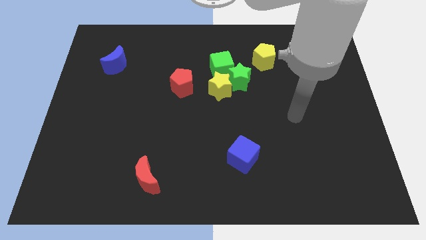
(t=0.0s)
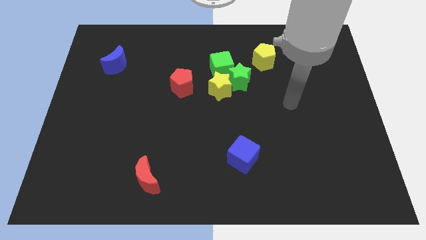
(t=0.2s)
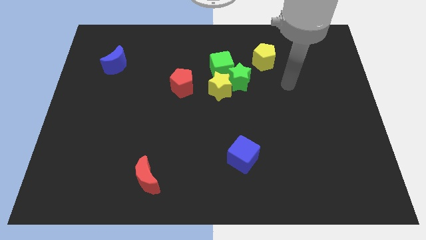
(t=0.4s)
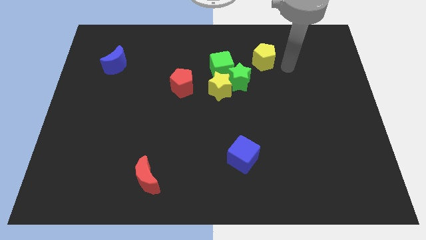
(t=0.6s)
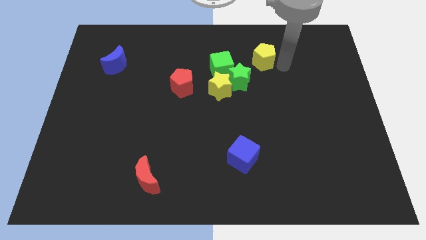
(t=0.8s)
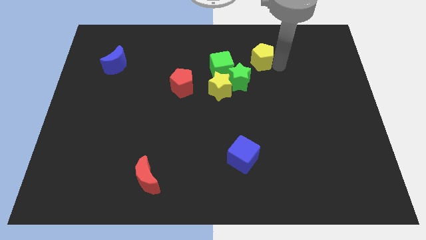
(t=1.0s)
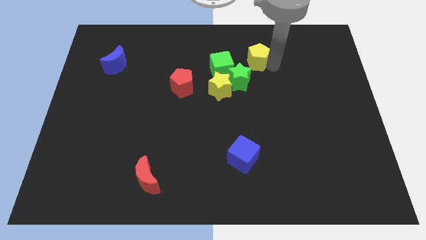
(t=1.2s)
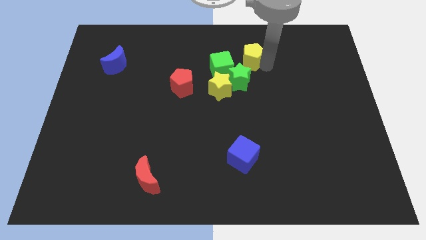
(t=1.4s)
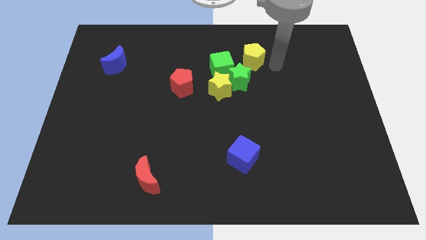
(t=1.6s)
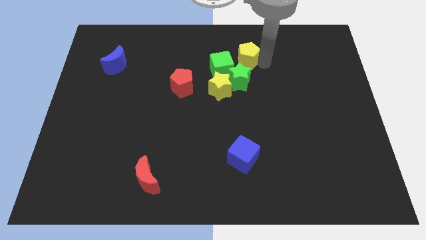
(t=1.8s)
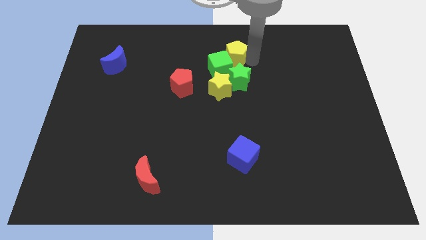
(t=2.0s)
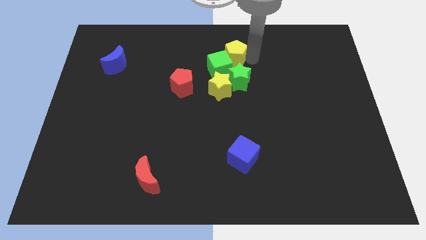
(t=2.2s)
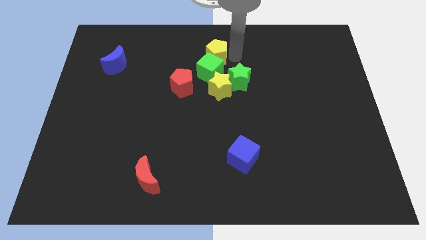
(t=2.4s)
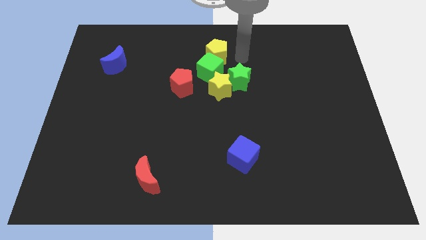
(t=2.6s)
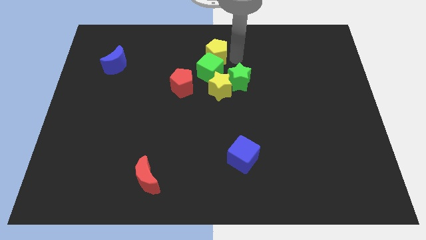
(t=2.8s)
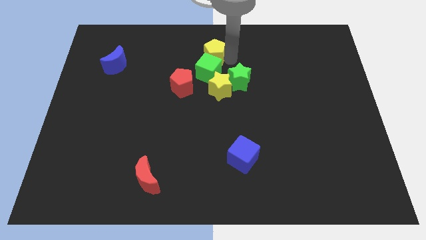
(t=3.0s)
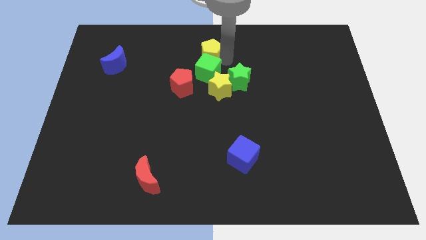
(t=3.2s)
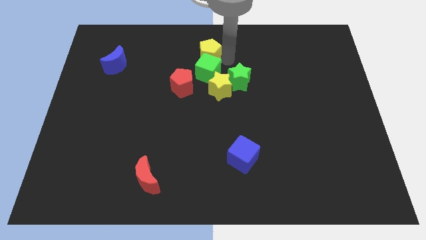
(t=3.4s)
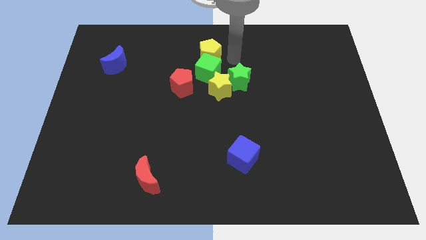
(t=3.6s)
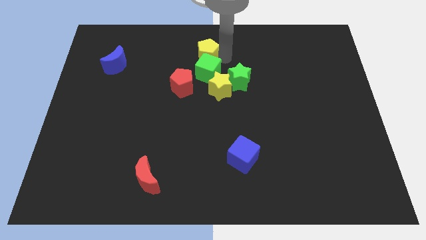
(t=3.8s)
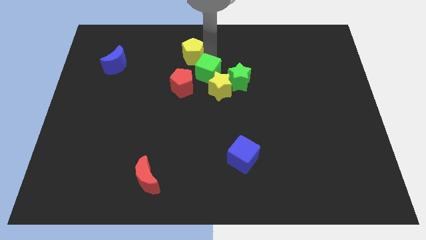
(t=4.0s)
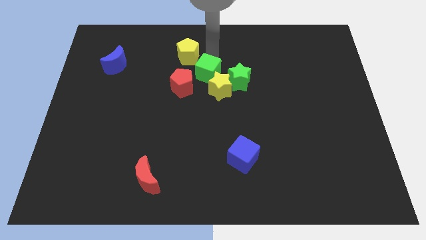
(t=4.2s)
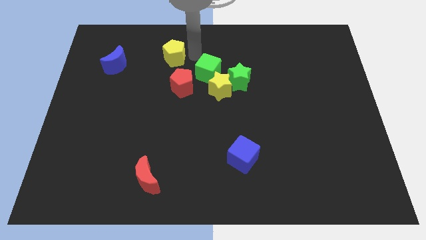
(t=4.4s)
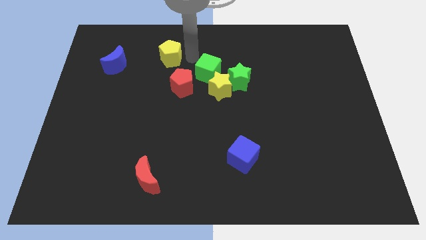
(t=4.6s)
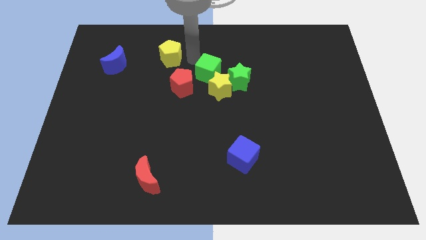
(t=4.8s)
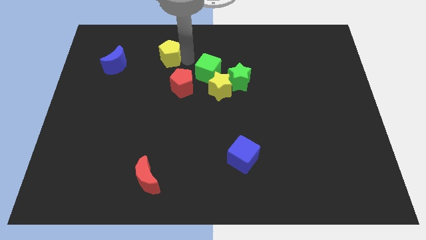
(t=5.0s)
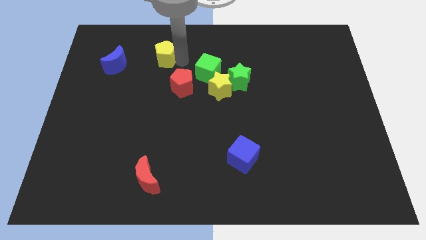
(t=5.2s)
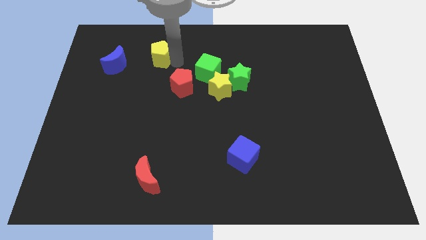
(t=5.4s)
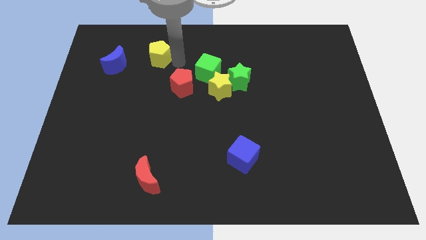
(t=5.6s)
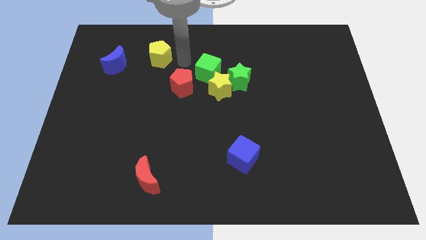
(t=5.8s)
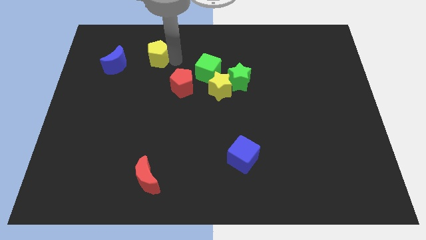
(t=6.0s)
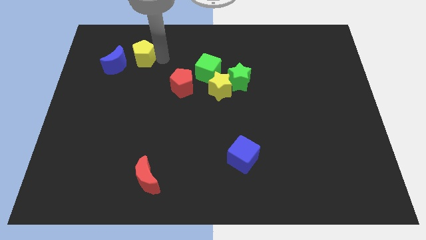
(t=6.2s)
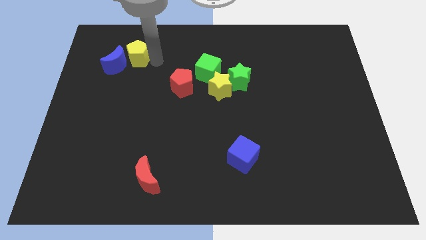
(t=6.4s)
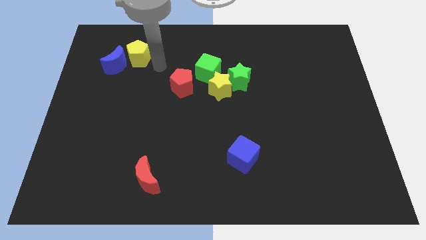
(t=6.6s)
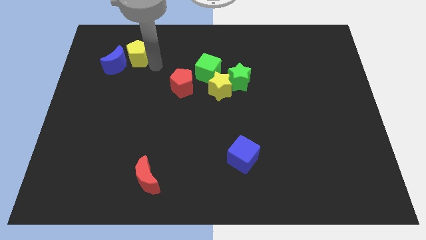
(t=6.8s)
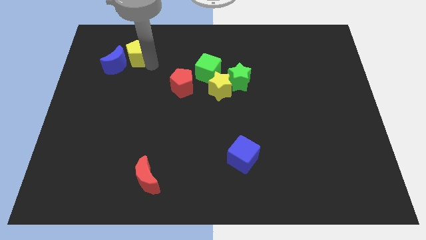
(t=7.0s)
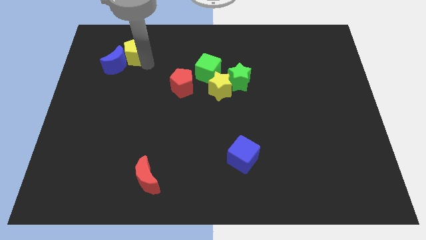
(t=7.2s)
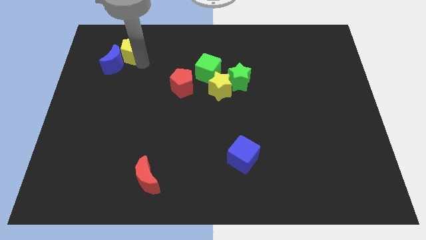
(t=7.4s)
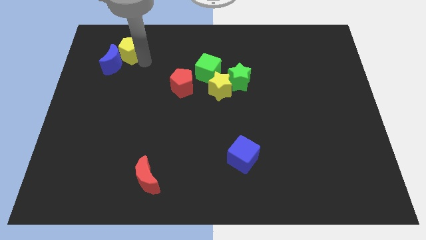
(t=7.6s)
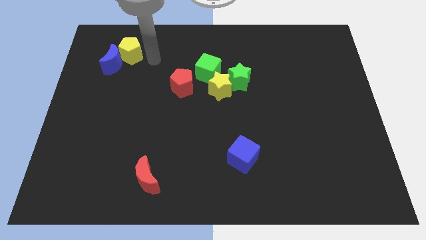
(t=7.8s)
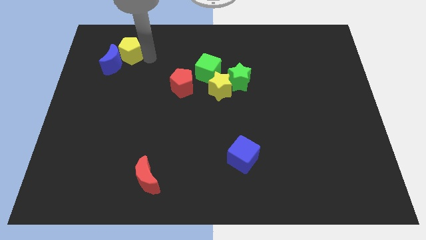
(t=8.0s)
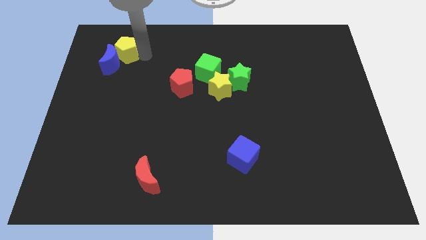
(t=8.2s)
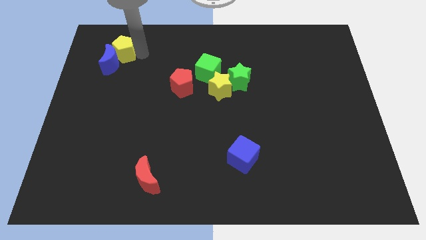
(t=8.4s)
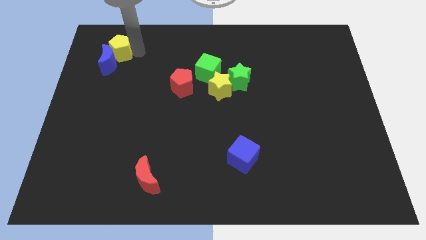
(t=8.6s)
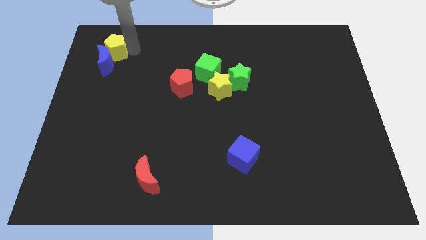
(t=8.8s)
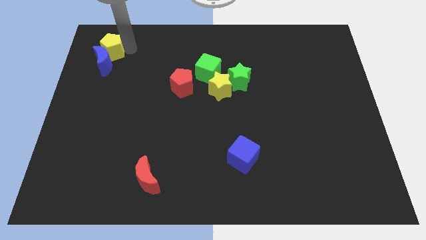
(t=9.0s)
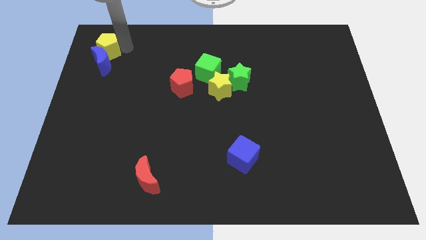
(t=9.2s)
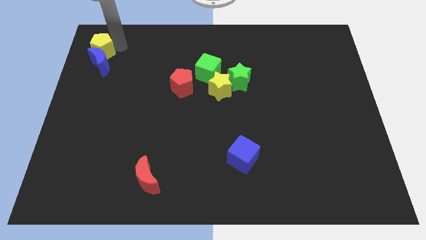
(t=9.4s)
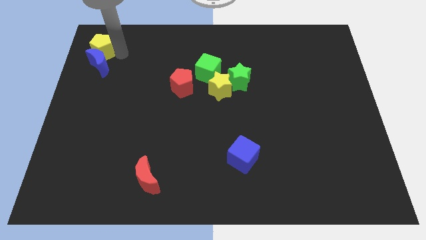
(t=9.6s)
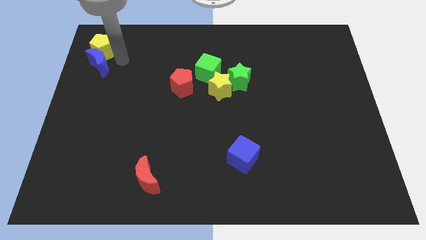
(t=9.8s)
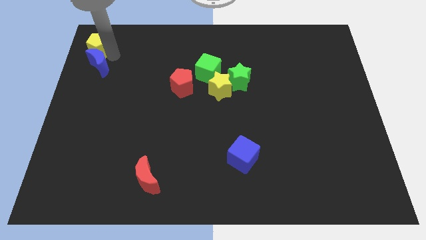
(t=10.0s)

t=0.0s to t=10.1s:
slide the yellow pentagon to the top left of the board

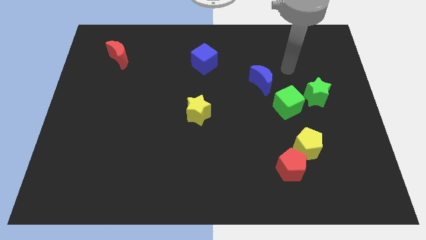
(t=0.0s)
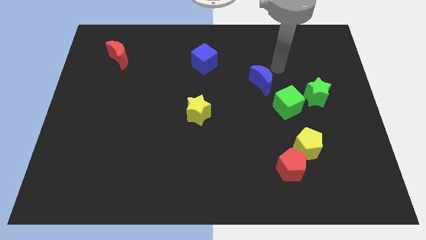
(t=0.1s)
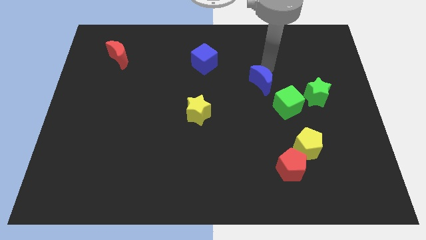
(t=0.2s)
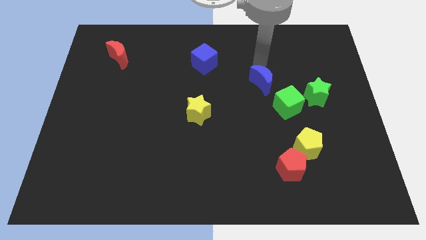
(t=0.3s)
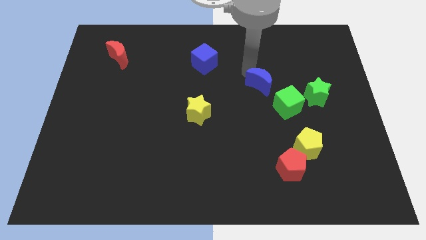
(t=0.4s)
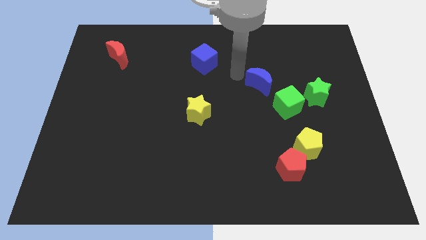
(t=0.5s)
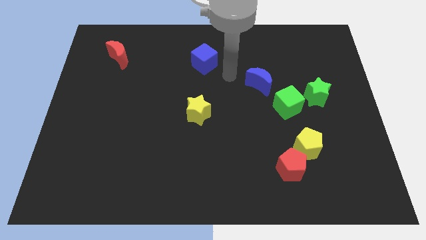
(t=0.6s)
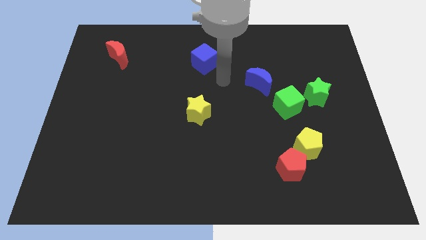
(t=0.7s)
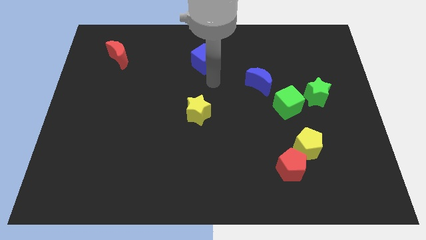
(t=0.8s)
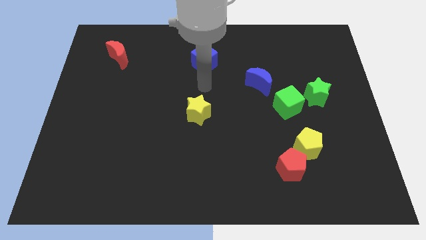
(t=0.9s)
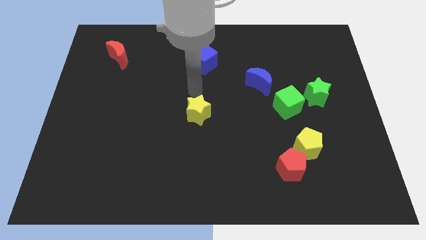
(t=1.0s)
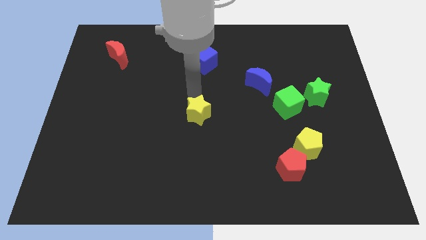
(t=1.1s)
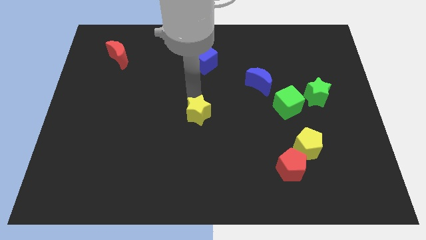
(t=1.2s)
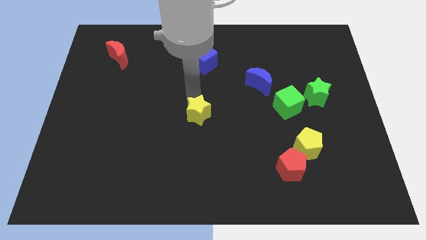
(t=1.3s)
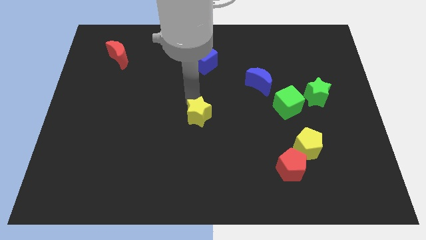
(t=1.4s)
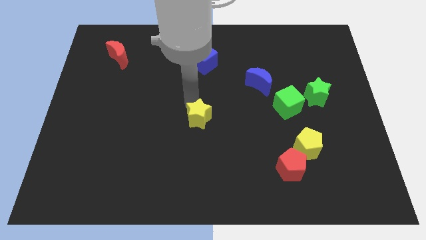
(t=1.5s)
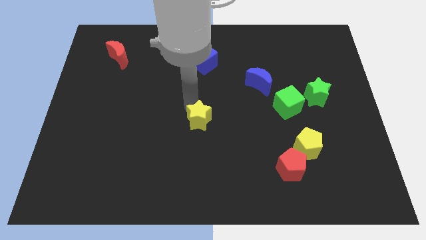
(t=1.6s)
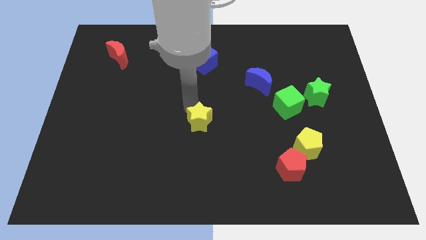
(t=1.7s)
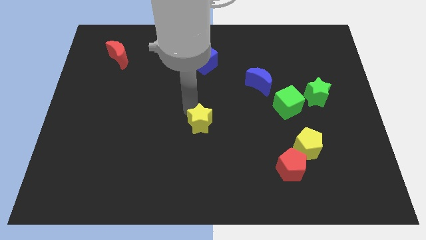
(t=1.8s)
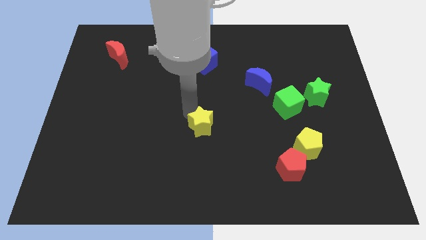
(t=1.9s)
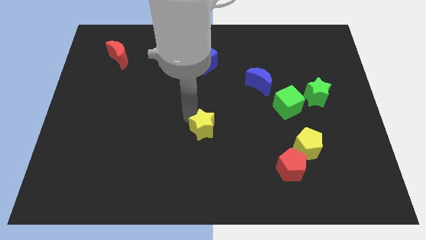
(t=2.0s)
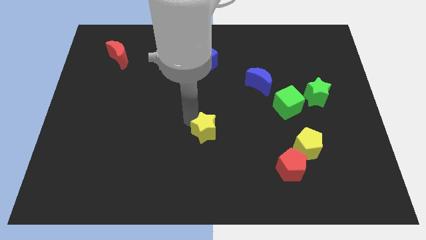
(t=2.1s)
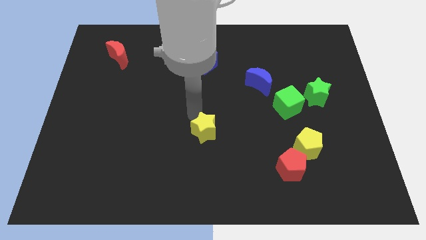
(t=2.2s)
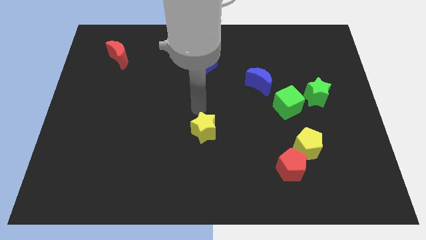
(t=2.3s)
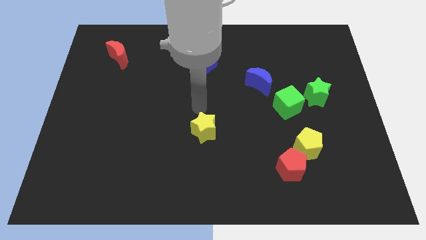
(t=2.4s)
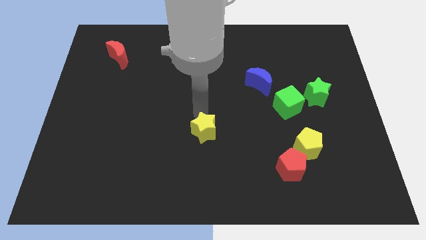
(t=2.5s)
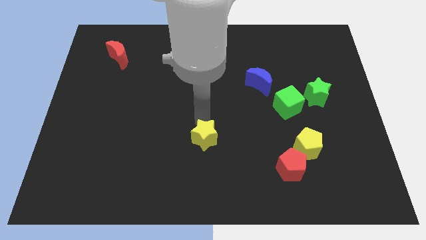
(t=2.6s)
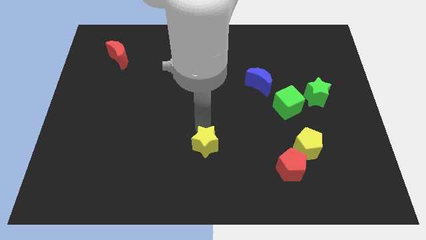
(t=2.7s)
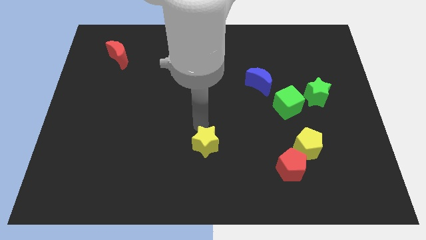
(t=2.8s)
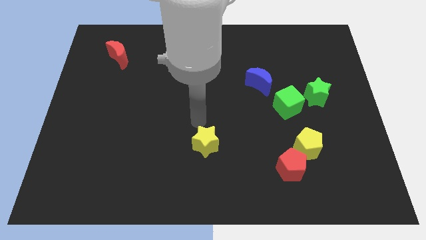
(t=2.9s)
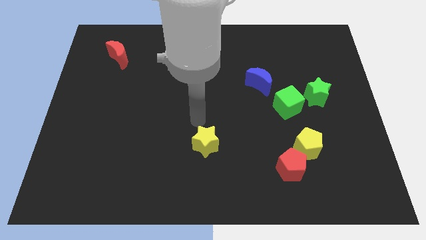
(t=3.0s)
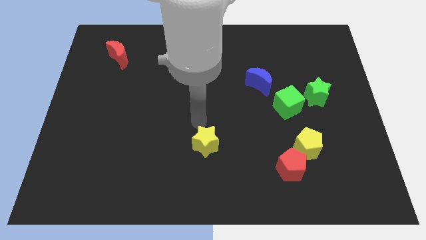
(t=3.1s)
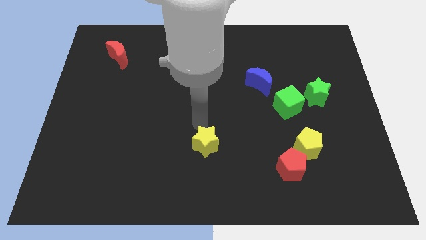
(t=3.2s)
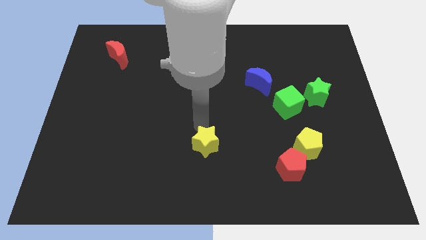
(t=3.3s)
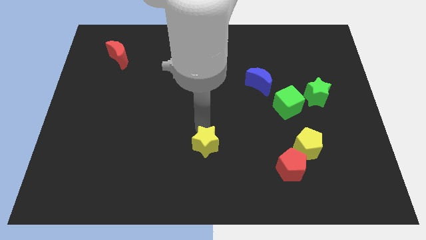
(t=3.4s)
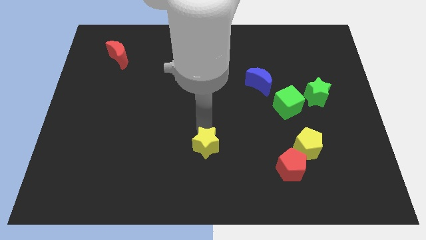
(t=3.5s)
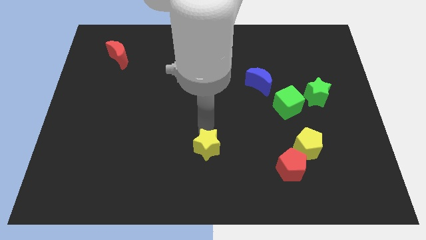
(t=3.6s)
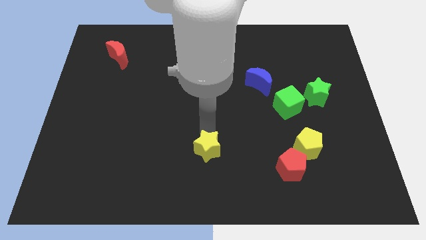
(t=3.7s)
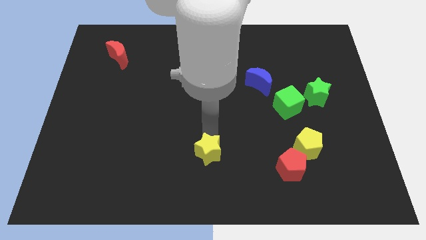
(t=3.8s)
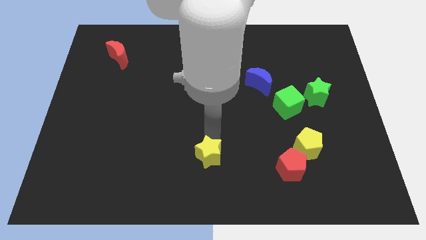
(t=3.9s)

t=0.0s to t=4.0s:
move the yellow star to the bottom side
